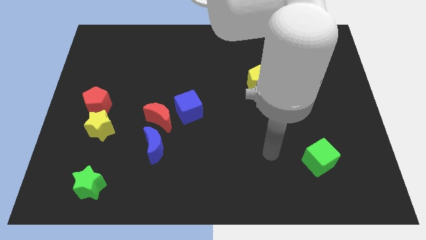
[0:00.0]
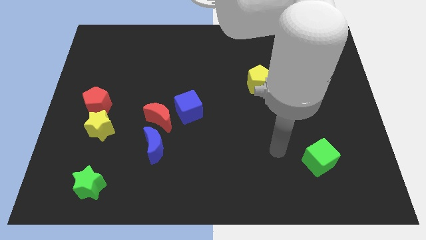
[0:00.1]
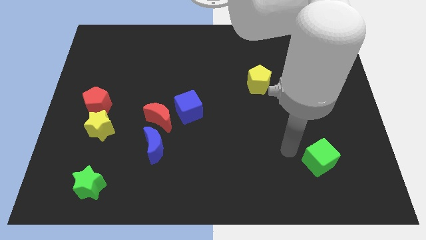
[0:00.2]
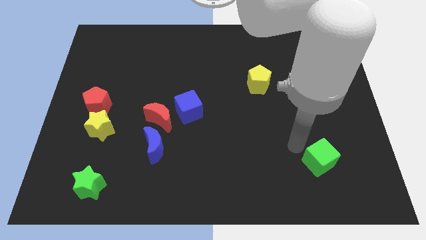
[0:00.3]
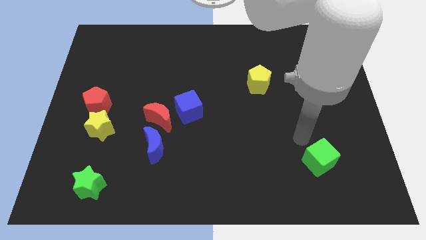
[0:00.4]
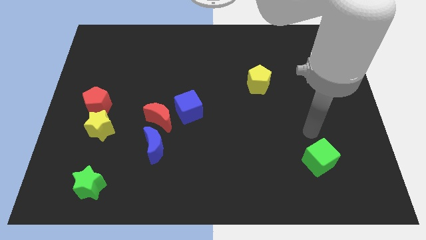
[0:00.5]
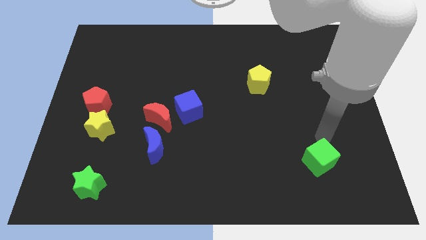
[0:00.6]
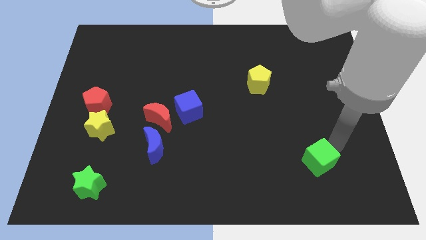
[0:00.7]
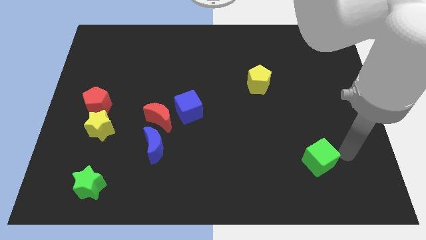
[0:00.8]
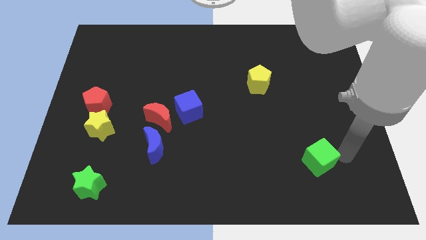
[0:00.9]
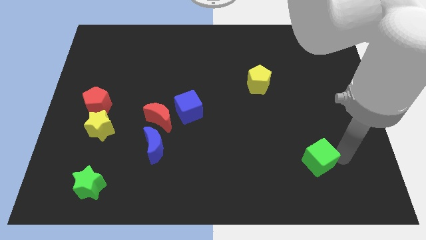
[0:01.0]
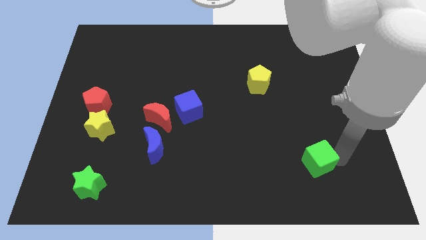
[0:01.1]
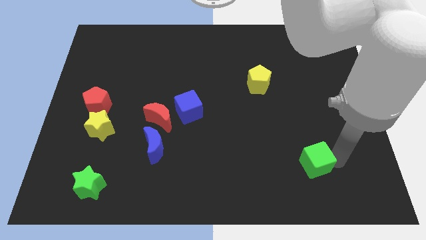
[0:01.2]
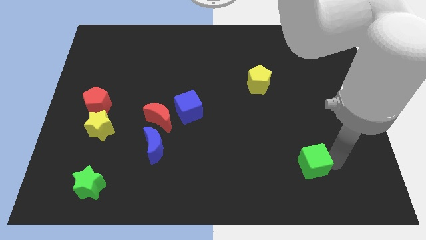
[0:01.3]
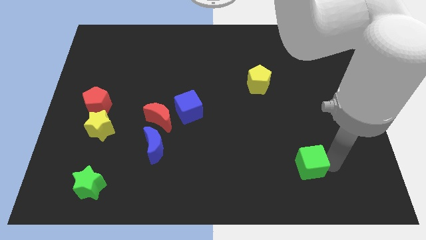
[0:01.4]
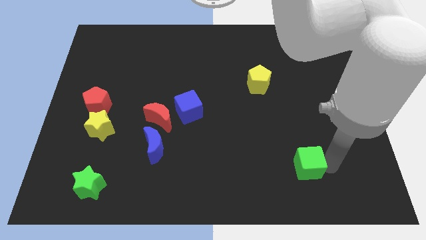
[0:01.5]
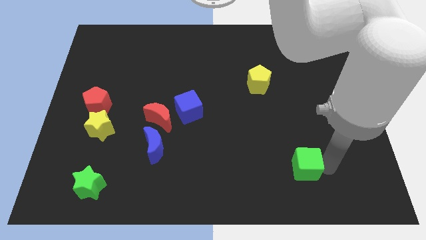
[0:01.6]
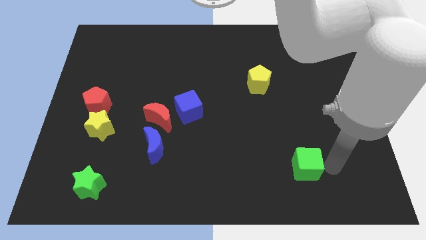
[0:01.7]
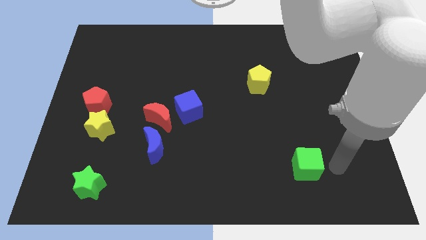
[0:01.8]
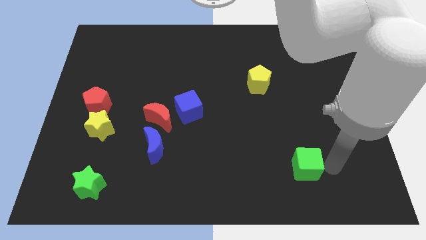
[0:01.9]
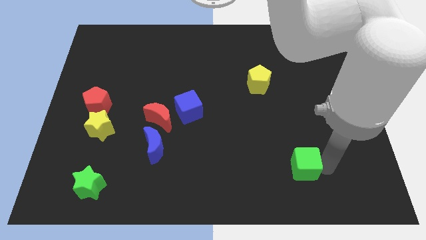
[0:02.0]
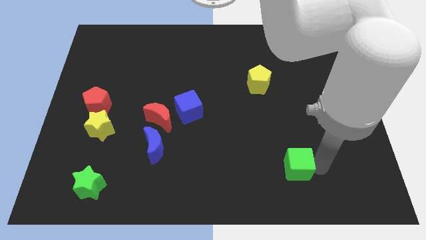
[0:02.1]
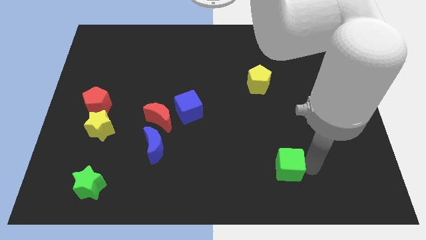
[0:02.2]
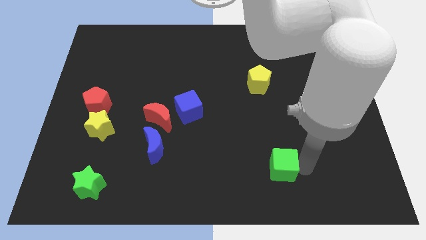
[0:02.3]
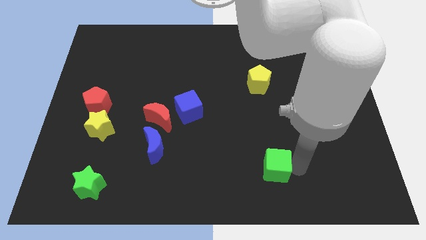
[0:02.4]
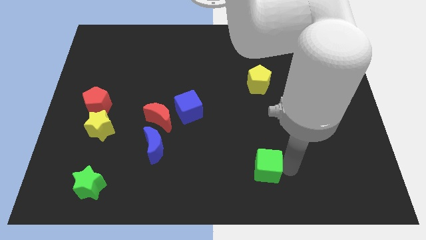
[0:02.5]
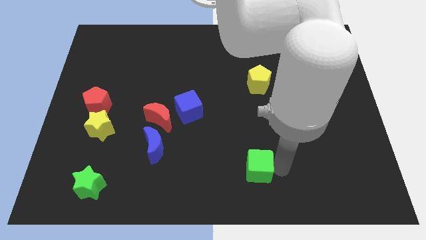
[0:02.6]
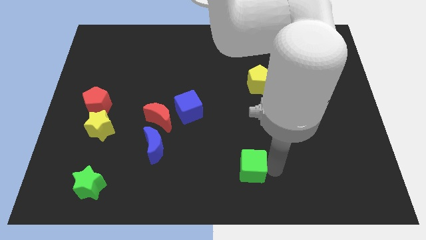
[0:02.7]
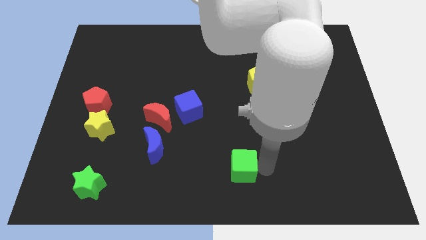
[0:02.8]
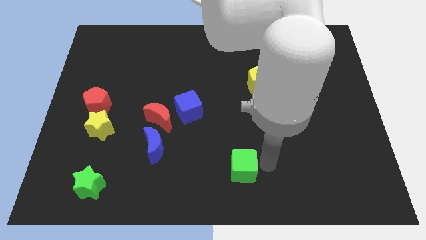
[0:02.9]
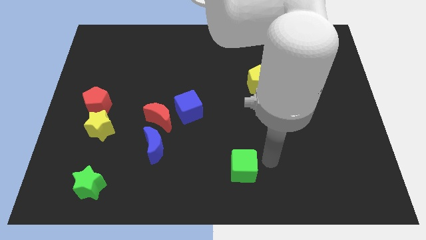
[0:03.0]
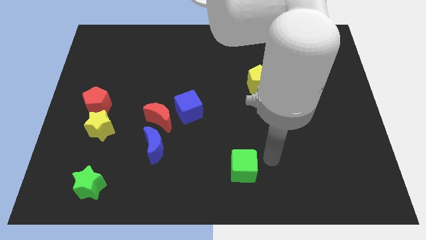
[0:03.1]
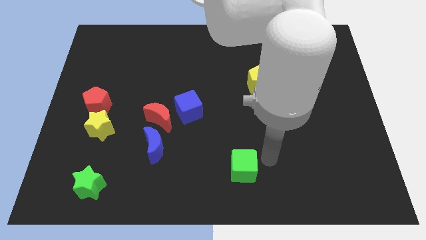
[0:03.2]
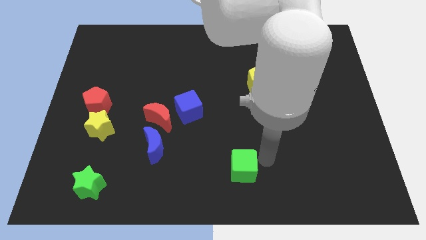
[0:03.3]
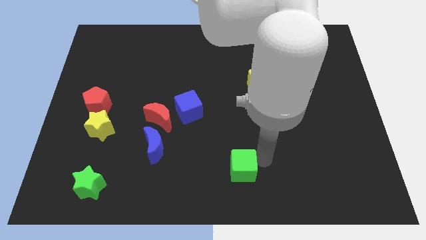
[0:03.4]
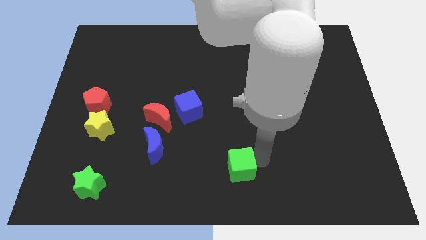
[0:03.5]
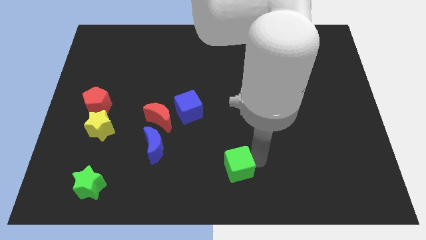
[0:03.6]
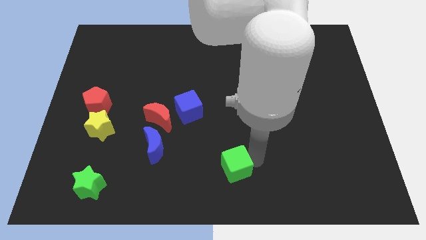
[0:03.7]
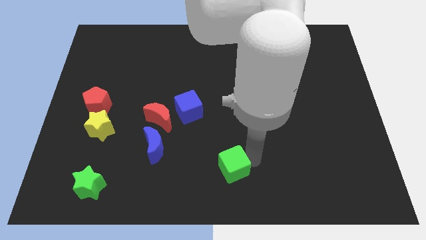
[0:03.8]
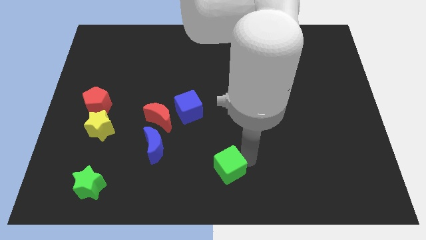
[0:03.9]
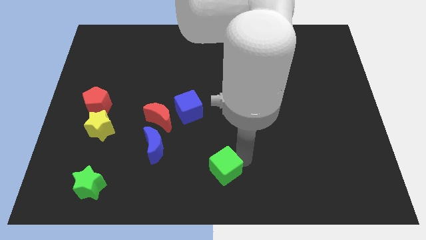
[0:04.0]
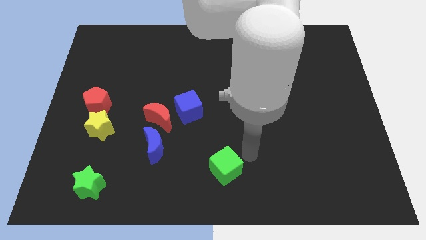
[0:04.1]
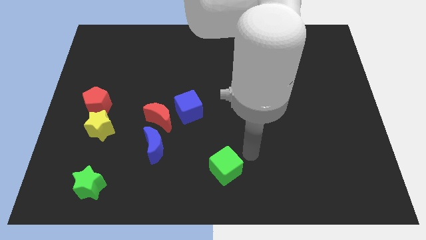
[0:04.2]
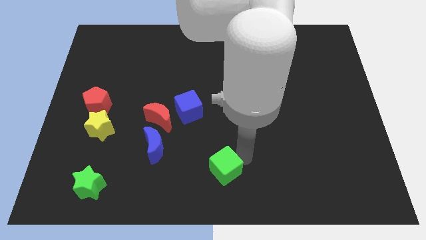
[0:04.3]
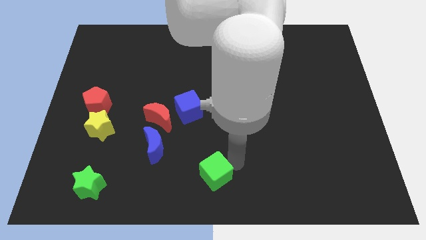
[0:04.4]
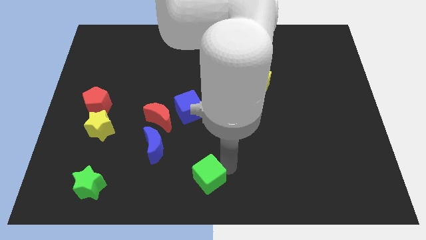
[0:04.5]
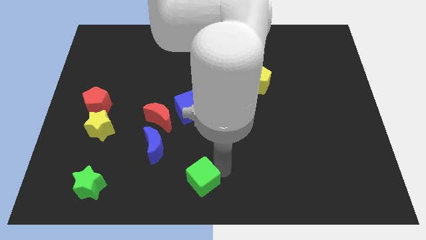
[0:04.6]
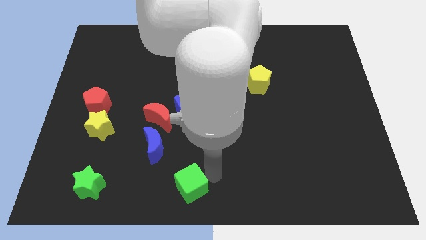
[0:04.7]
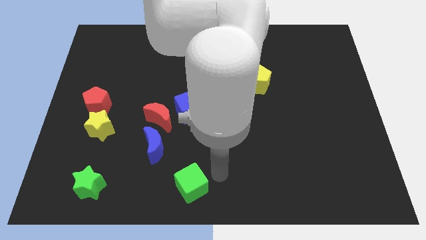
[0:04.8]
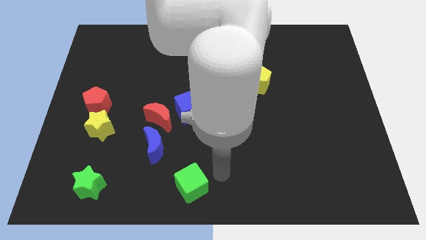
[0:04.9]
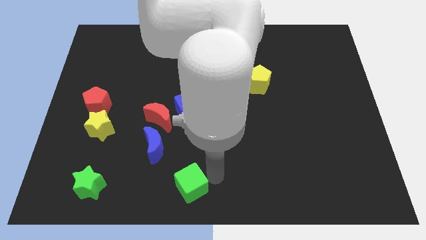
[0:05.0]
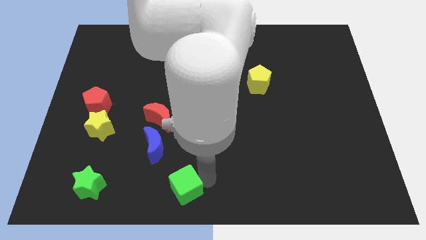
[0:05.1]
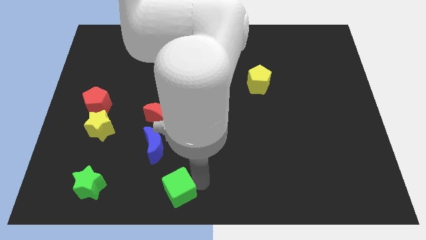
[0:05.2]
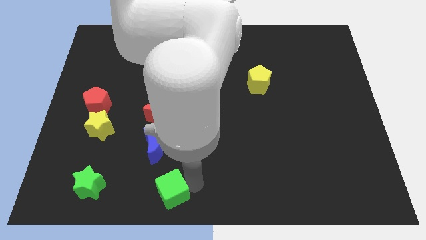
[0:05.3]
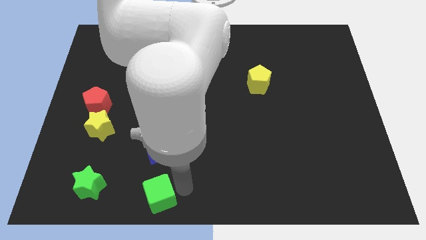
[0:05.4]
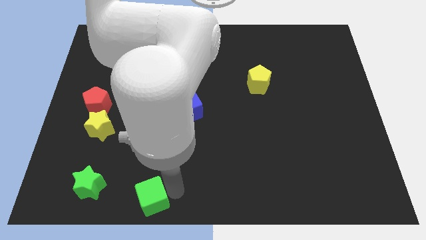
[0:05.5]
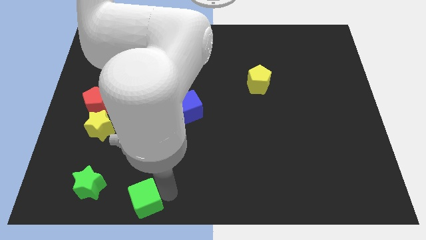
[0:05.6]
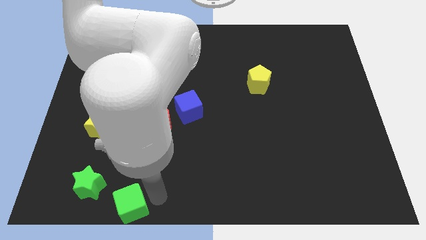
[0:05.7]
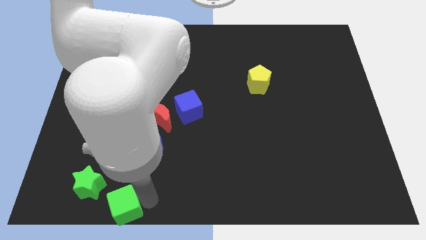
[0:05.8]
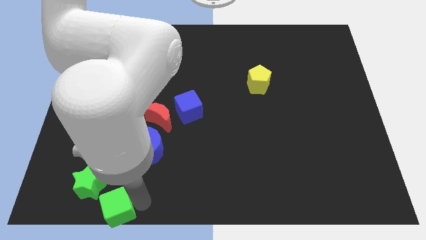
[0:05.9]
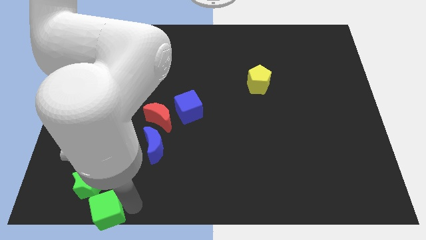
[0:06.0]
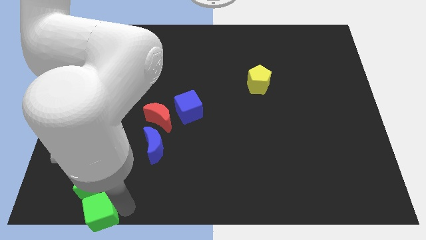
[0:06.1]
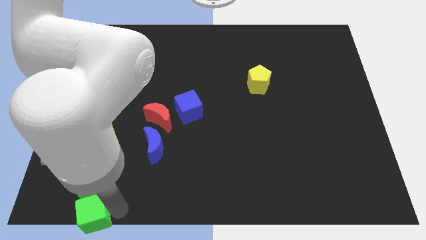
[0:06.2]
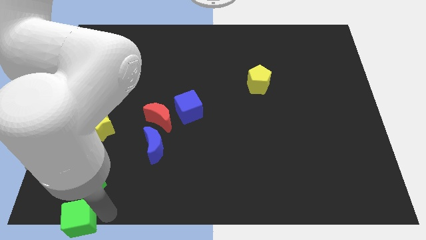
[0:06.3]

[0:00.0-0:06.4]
slide the green cube to the bottom left corner
